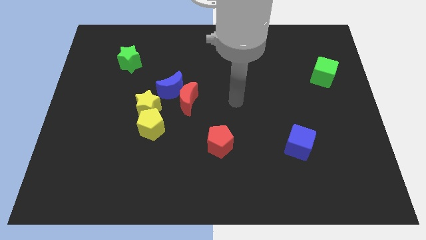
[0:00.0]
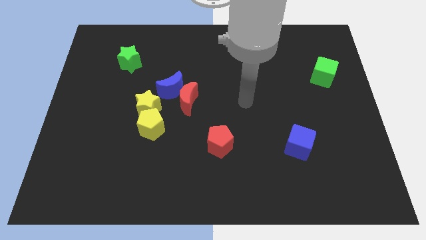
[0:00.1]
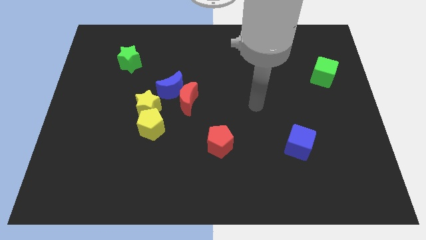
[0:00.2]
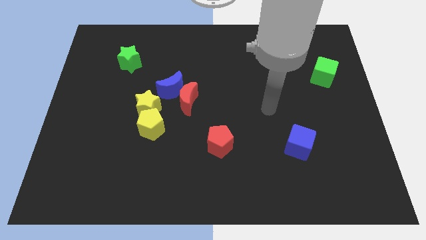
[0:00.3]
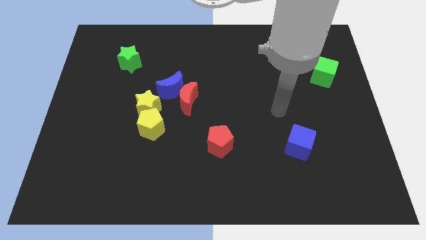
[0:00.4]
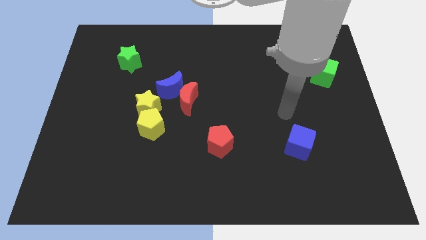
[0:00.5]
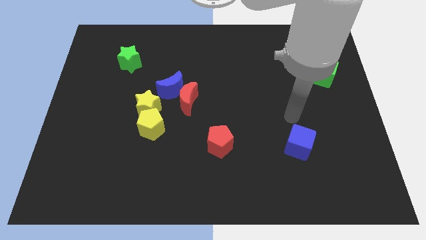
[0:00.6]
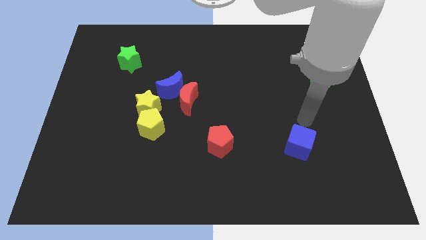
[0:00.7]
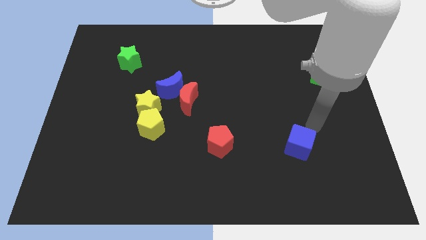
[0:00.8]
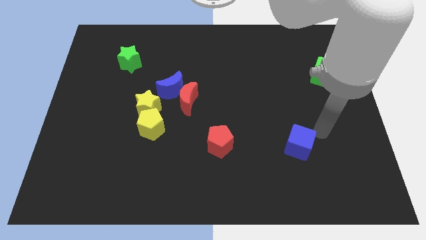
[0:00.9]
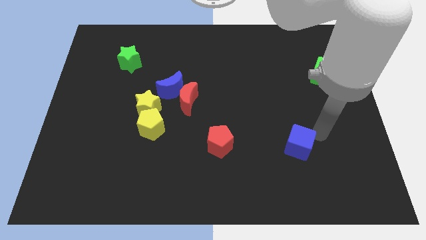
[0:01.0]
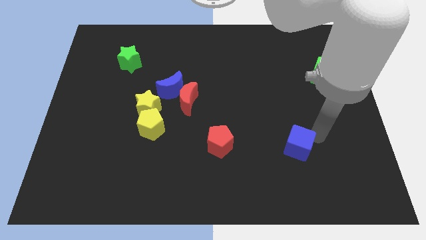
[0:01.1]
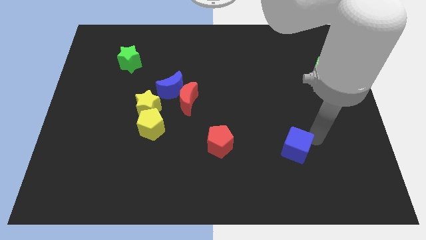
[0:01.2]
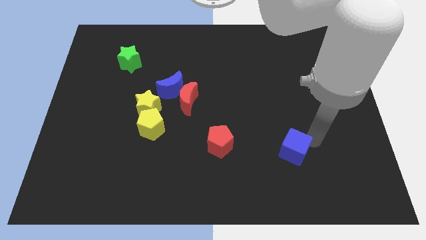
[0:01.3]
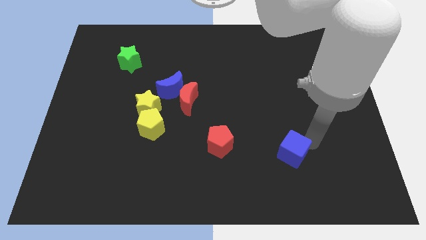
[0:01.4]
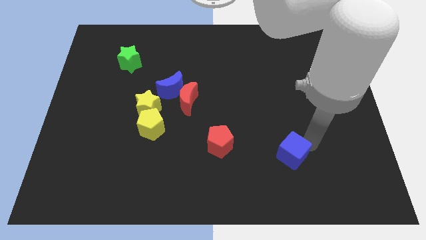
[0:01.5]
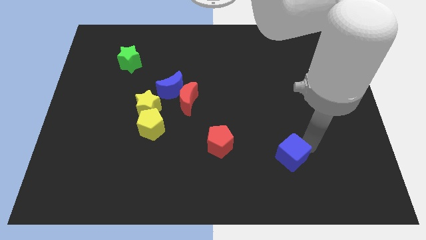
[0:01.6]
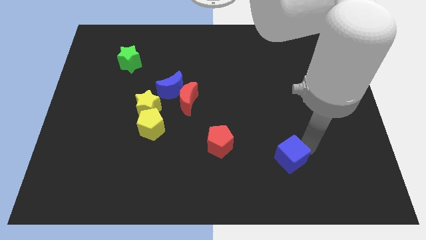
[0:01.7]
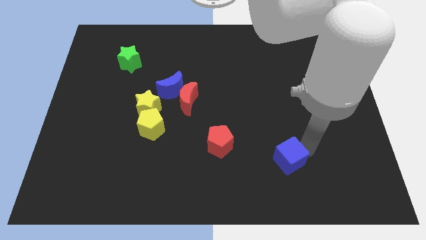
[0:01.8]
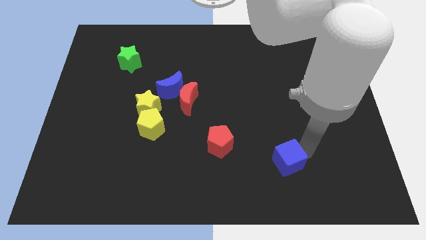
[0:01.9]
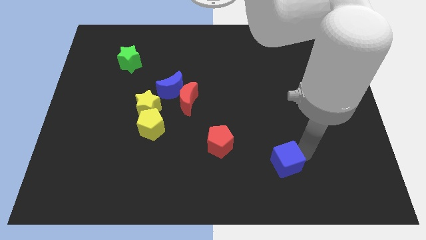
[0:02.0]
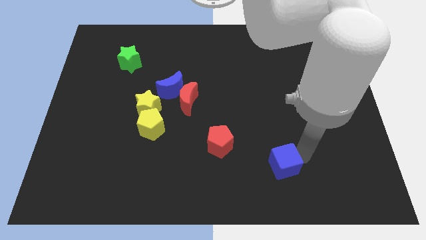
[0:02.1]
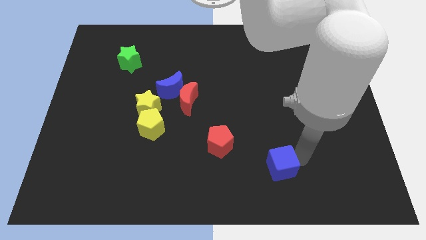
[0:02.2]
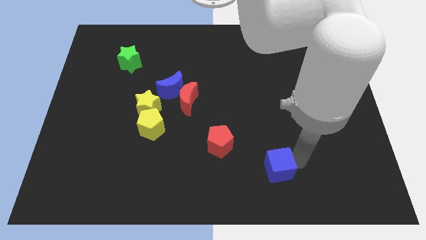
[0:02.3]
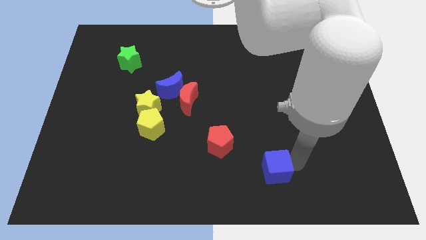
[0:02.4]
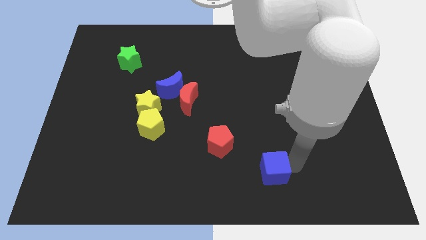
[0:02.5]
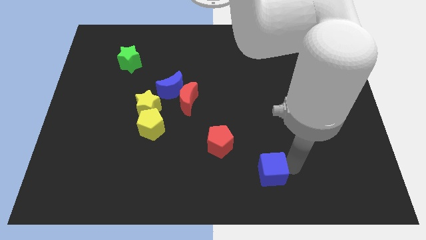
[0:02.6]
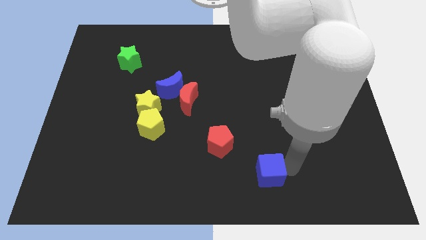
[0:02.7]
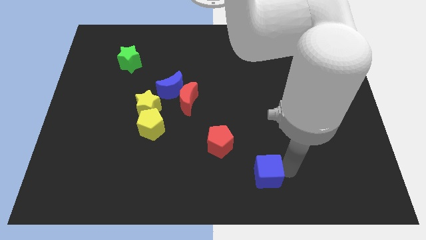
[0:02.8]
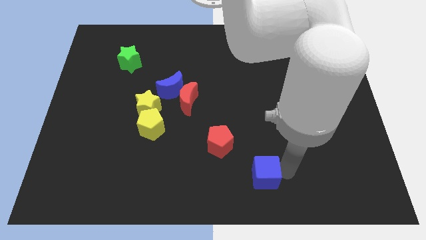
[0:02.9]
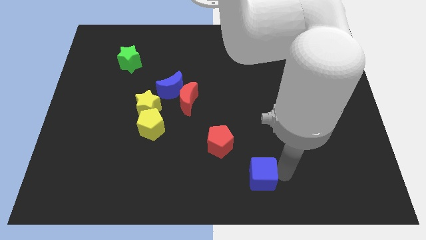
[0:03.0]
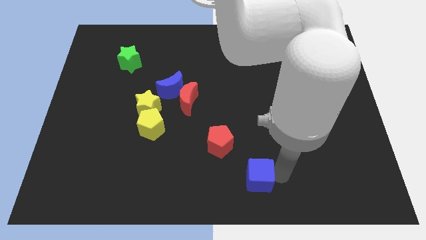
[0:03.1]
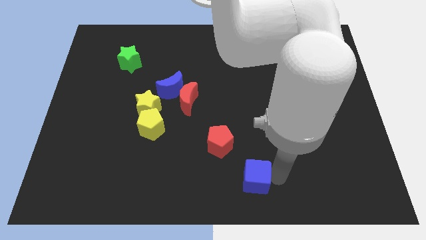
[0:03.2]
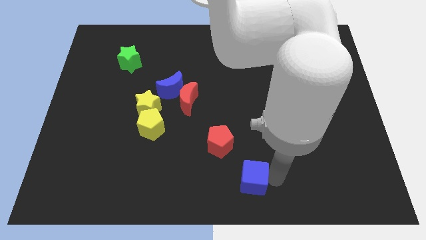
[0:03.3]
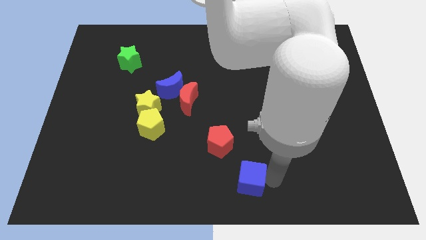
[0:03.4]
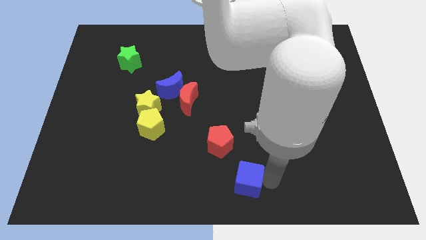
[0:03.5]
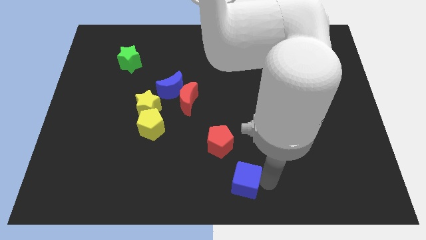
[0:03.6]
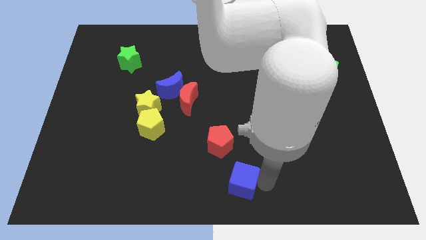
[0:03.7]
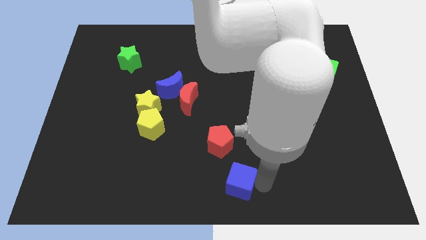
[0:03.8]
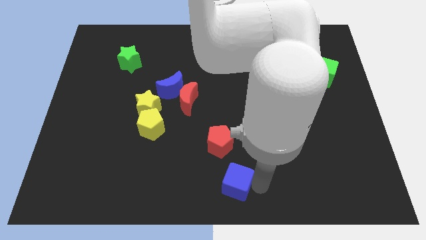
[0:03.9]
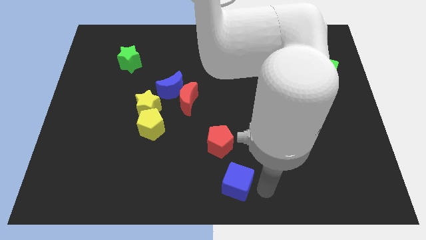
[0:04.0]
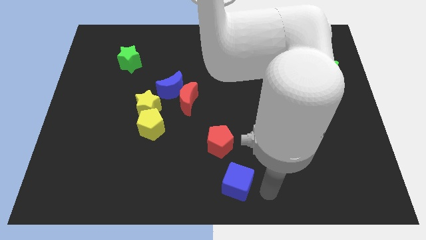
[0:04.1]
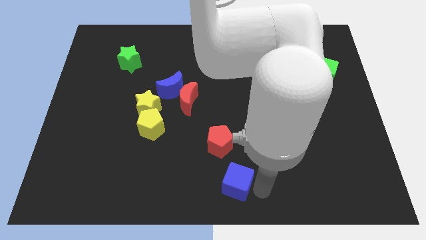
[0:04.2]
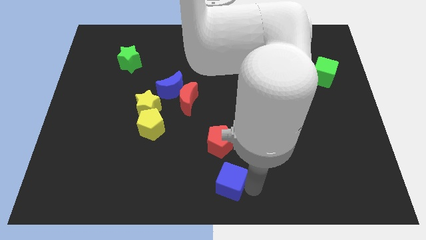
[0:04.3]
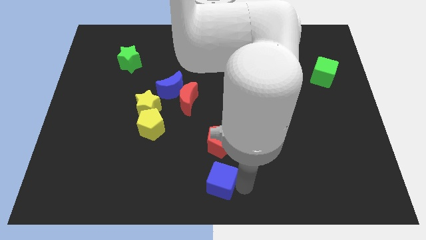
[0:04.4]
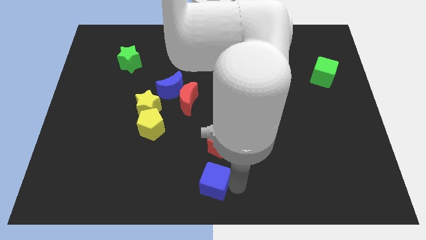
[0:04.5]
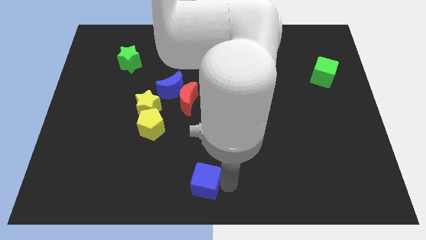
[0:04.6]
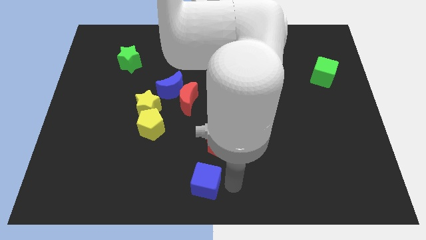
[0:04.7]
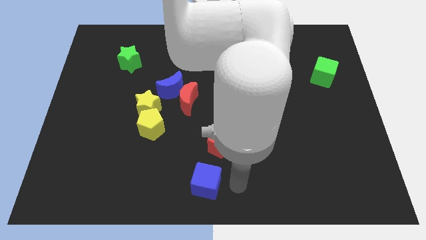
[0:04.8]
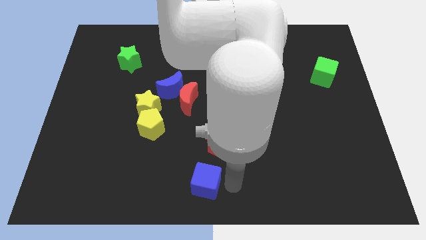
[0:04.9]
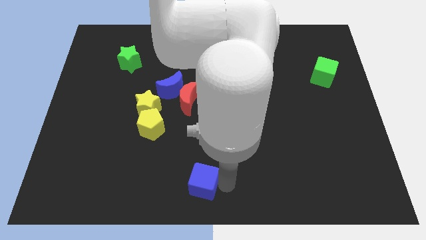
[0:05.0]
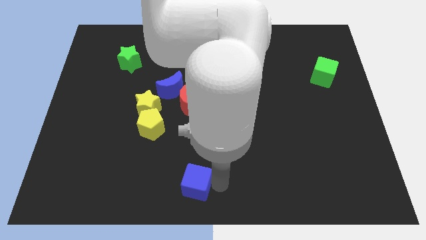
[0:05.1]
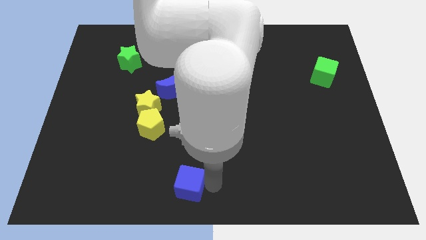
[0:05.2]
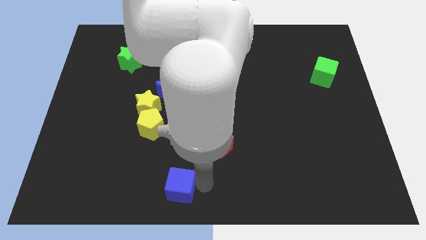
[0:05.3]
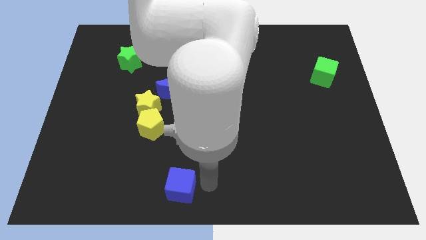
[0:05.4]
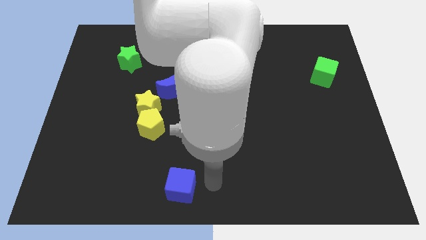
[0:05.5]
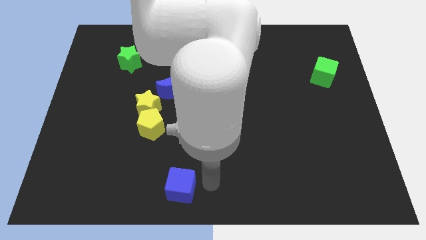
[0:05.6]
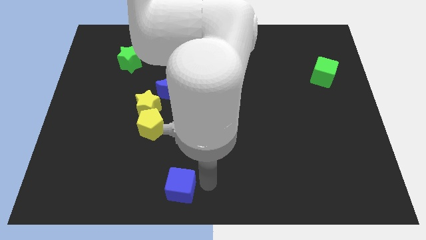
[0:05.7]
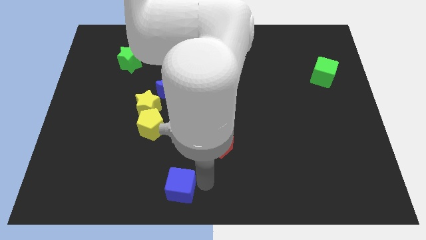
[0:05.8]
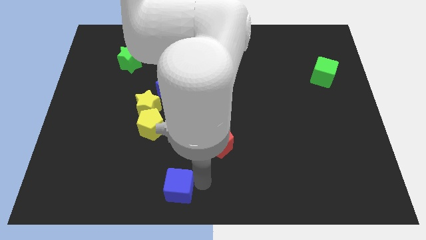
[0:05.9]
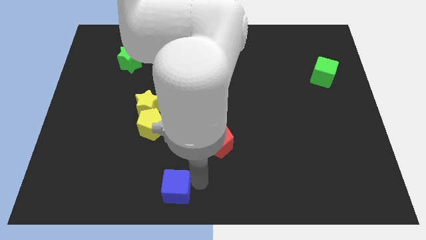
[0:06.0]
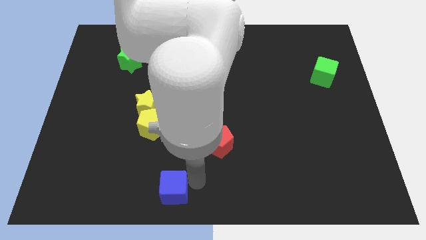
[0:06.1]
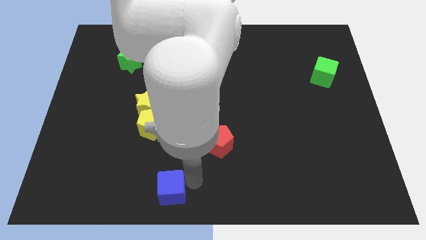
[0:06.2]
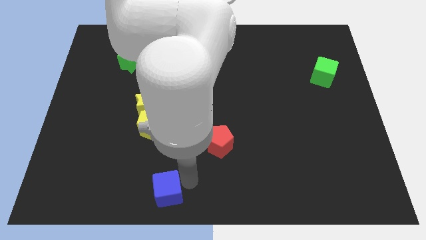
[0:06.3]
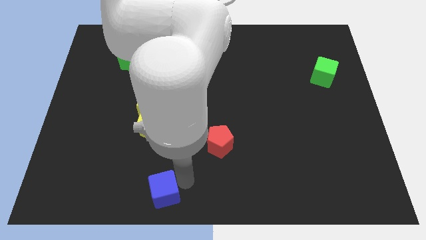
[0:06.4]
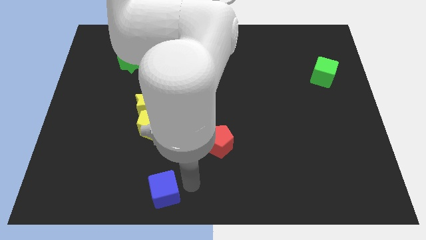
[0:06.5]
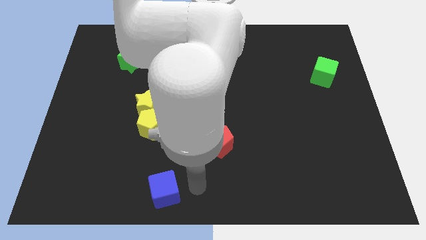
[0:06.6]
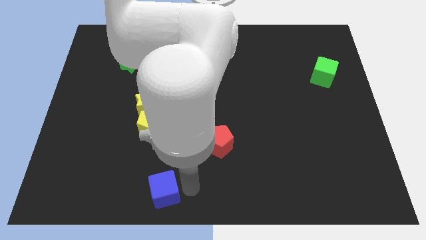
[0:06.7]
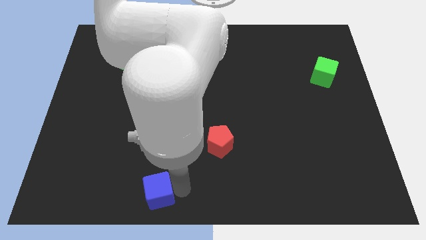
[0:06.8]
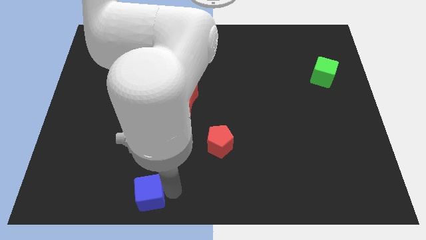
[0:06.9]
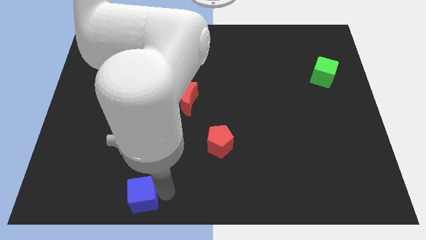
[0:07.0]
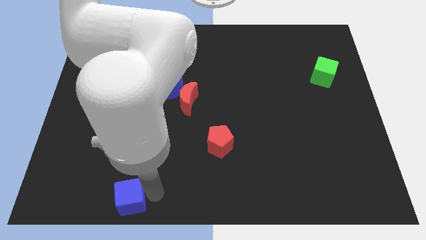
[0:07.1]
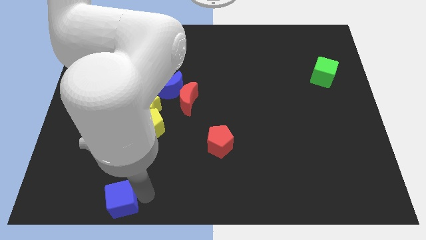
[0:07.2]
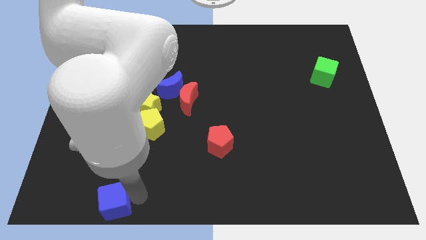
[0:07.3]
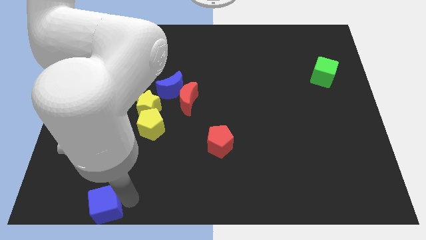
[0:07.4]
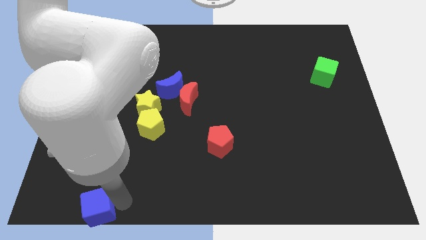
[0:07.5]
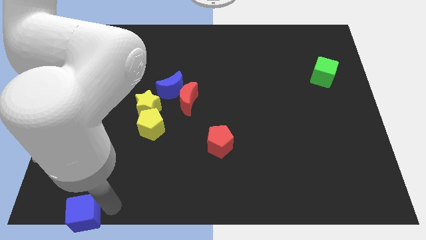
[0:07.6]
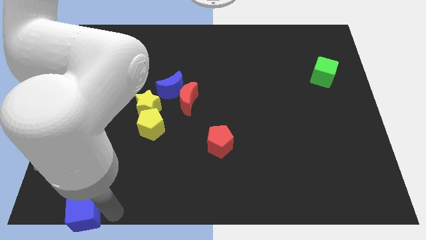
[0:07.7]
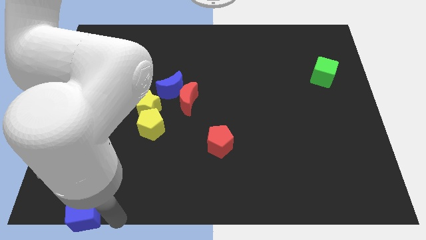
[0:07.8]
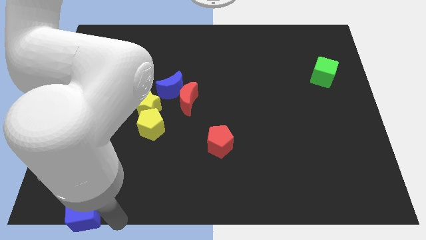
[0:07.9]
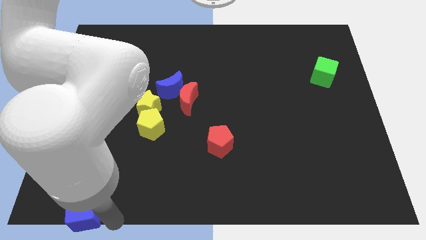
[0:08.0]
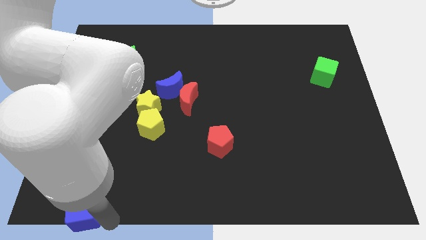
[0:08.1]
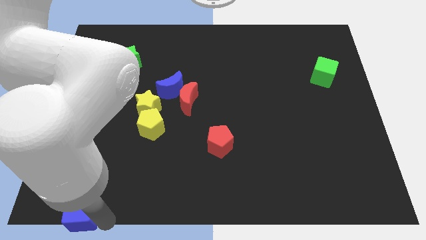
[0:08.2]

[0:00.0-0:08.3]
put the blue cube to the bottom left
